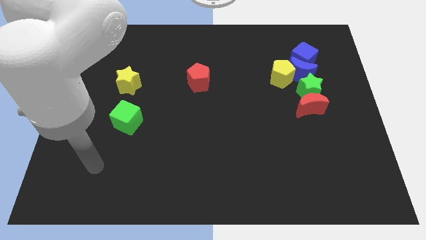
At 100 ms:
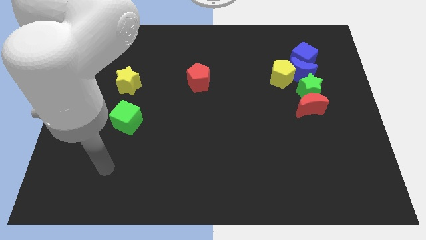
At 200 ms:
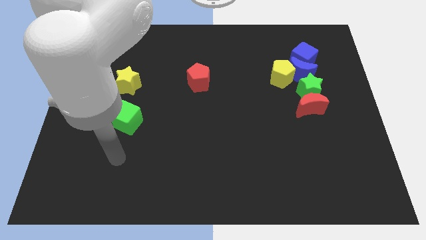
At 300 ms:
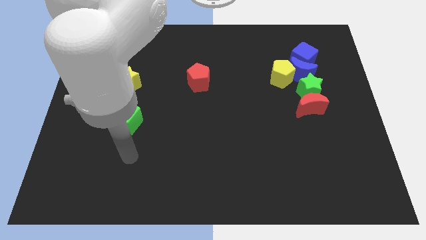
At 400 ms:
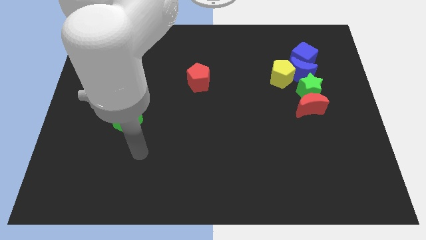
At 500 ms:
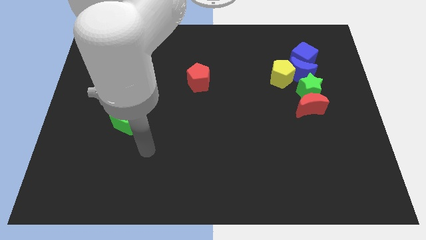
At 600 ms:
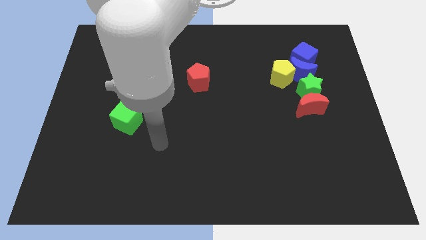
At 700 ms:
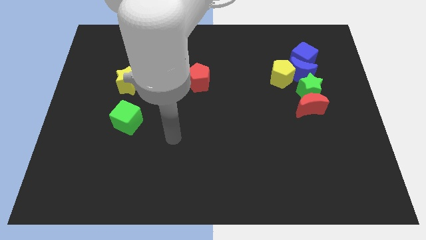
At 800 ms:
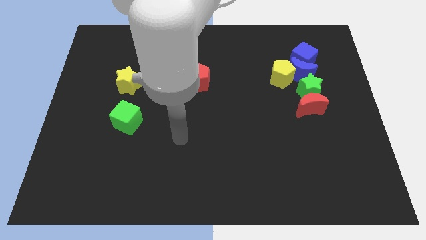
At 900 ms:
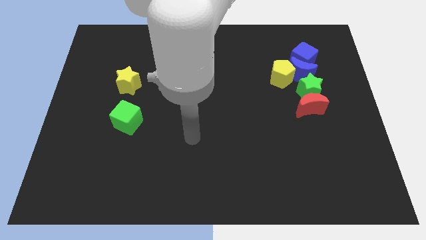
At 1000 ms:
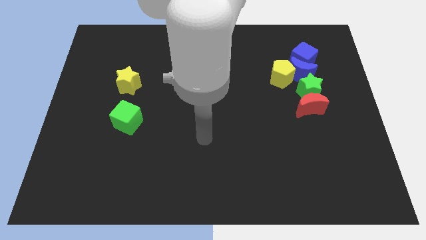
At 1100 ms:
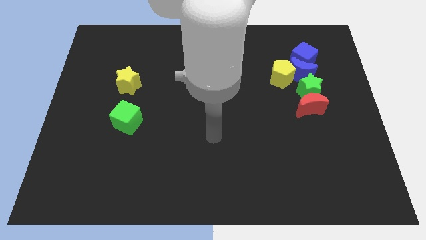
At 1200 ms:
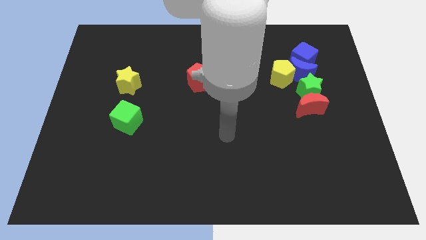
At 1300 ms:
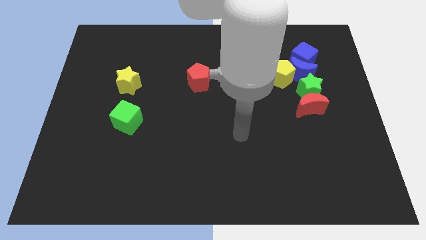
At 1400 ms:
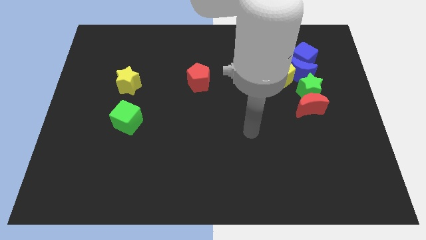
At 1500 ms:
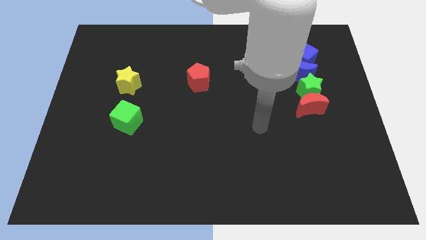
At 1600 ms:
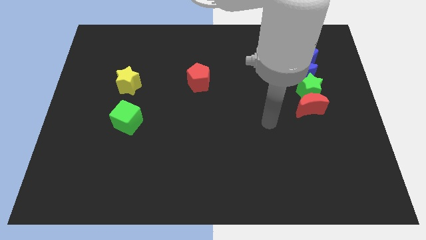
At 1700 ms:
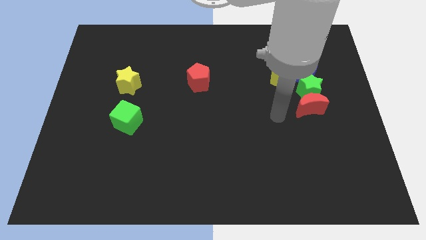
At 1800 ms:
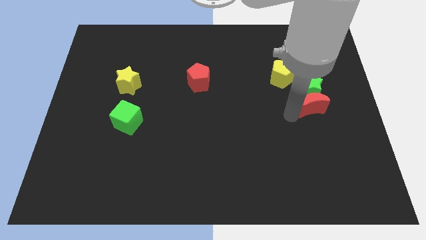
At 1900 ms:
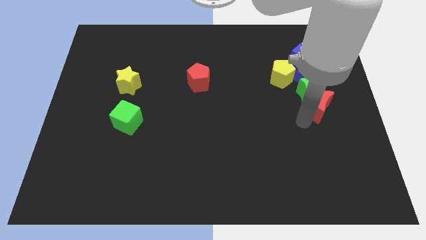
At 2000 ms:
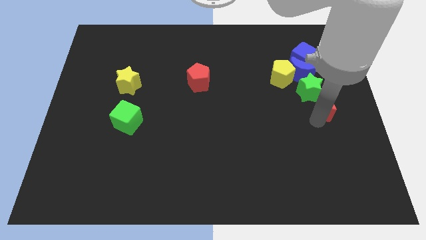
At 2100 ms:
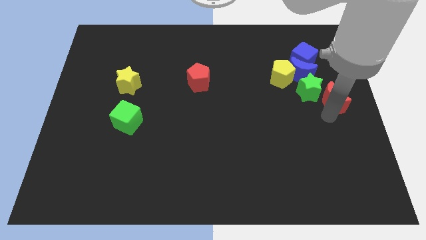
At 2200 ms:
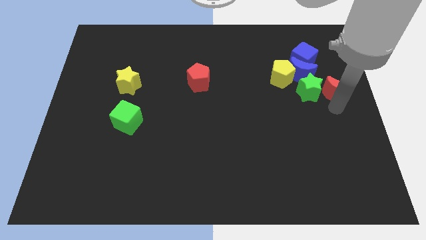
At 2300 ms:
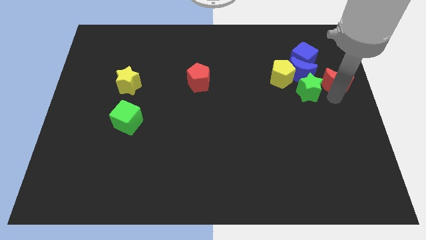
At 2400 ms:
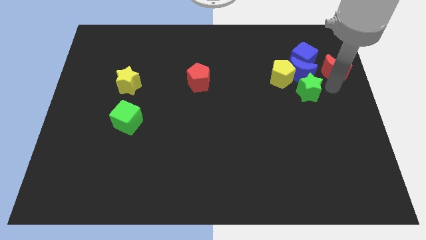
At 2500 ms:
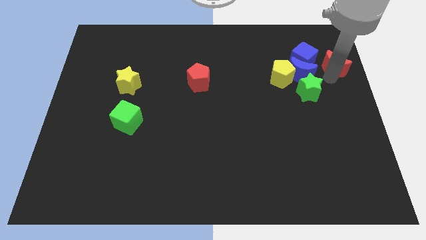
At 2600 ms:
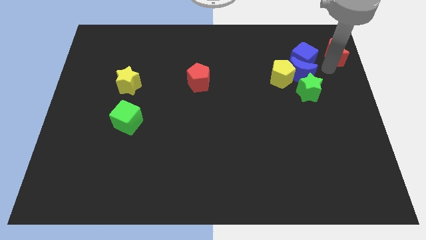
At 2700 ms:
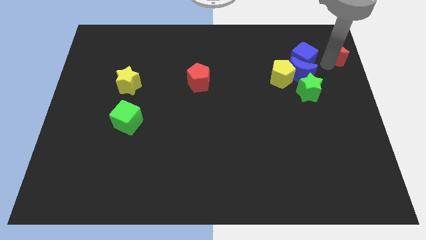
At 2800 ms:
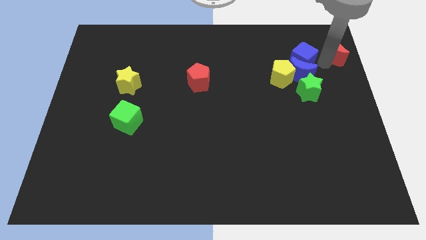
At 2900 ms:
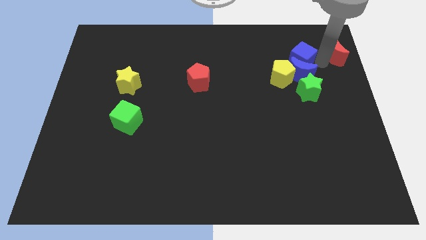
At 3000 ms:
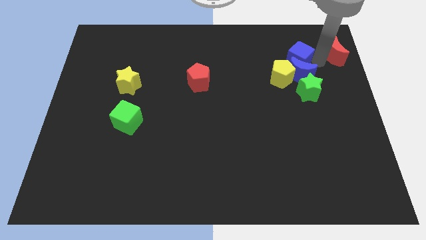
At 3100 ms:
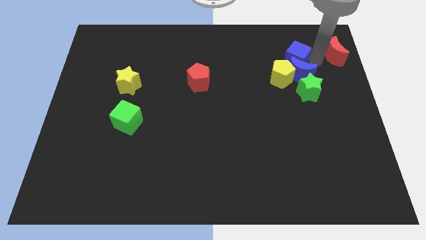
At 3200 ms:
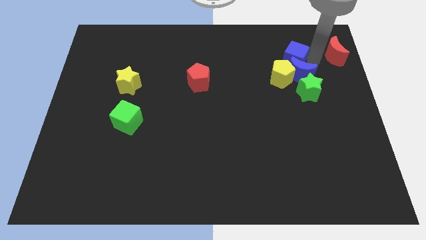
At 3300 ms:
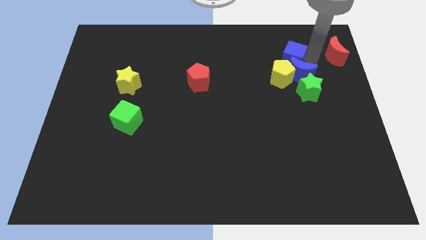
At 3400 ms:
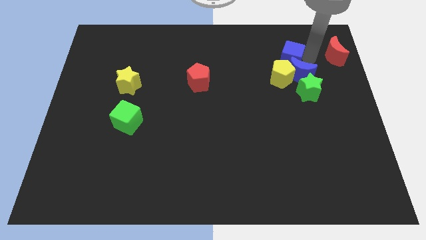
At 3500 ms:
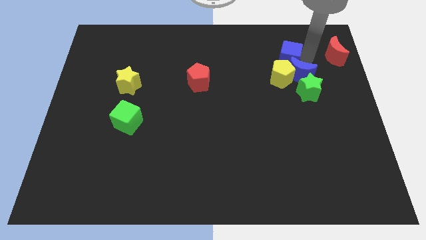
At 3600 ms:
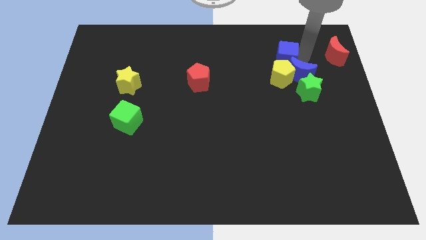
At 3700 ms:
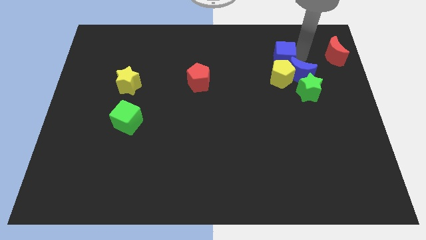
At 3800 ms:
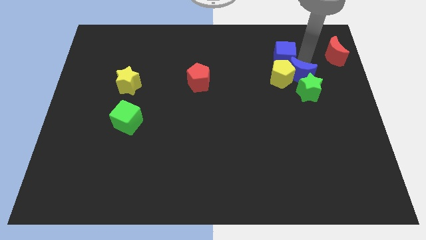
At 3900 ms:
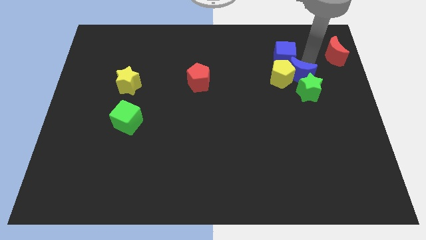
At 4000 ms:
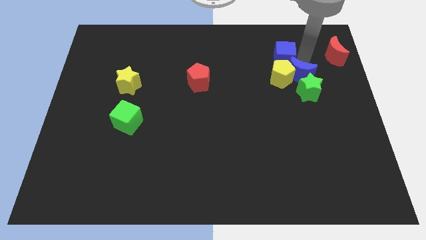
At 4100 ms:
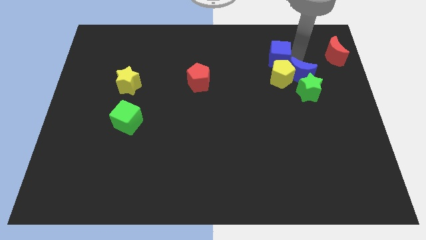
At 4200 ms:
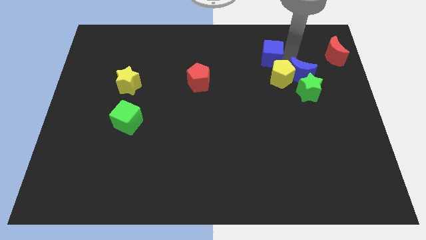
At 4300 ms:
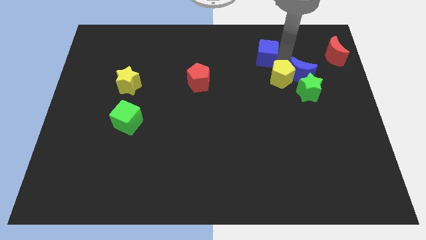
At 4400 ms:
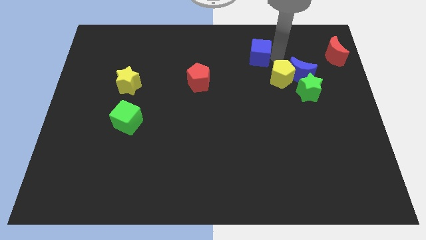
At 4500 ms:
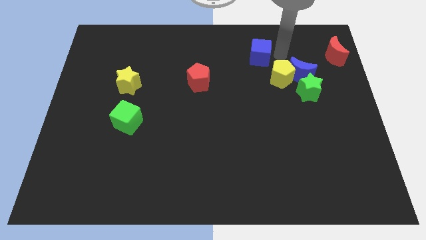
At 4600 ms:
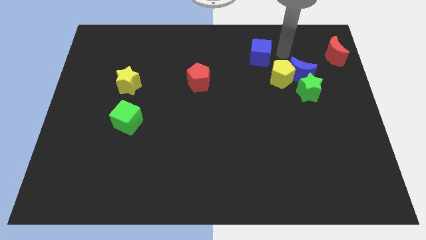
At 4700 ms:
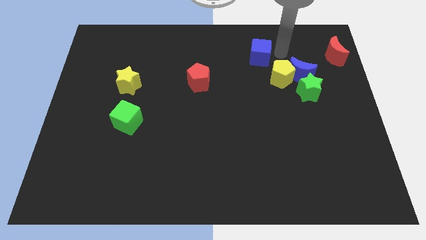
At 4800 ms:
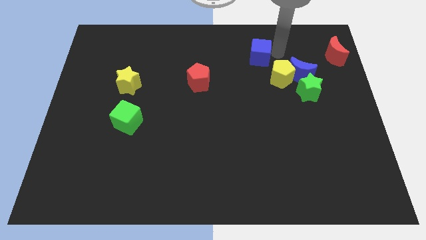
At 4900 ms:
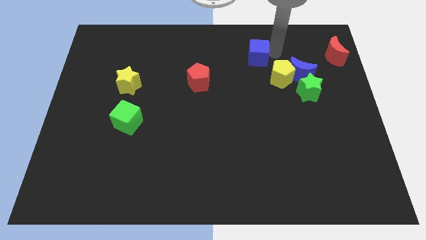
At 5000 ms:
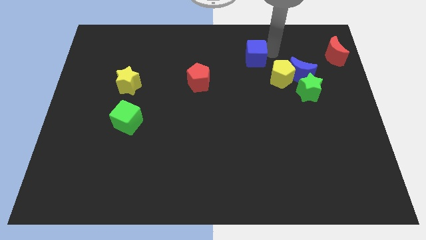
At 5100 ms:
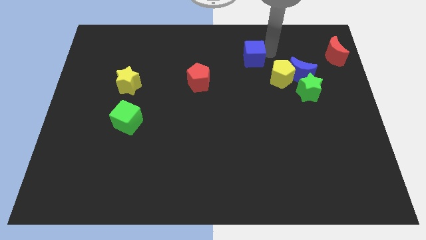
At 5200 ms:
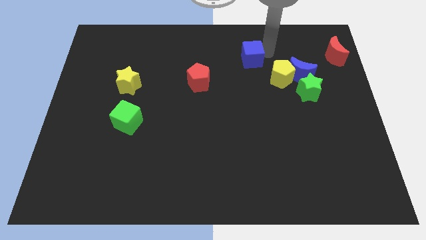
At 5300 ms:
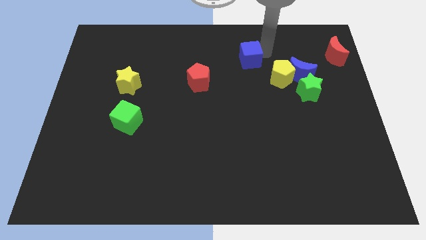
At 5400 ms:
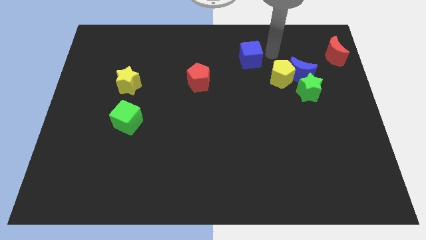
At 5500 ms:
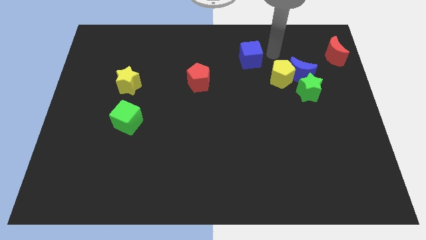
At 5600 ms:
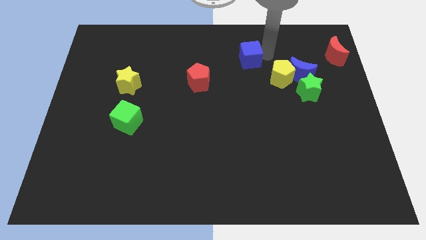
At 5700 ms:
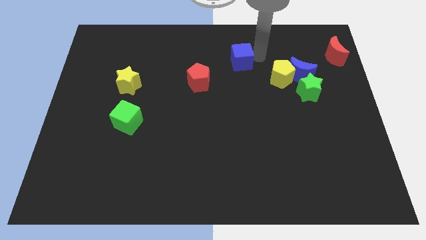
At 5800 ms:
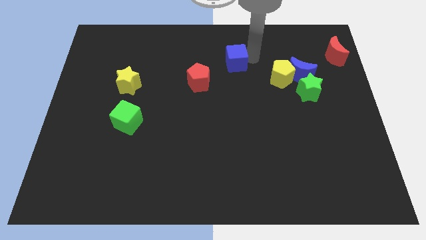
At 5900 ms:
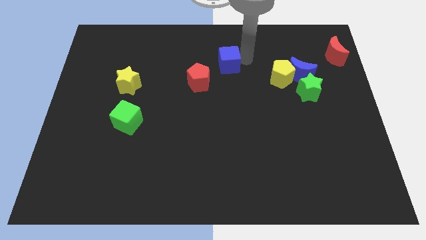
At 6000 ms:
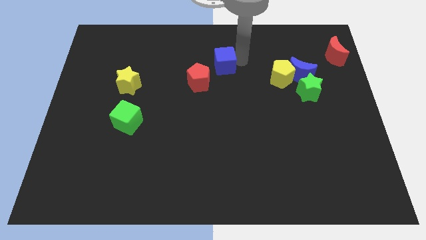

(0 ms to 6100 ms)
move the blue cube left

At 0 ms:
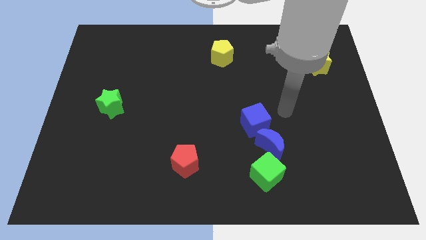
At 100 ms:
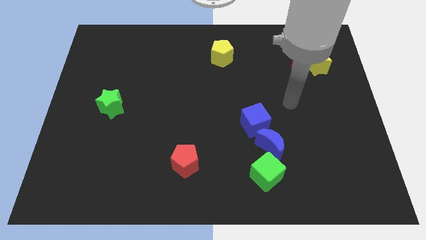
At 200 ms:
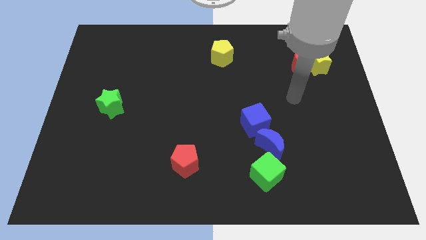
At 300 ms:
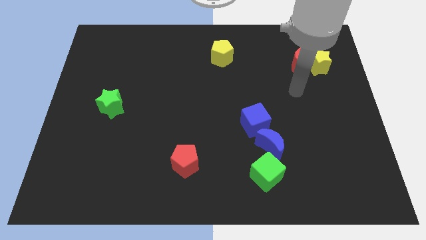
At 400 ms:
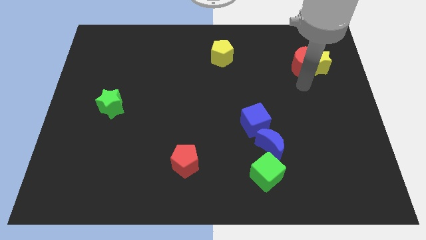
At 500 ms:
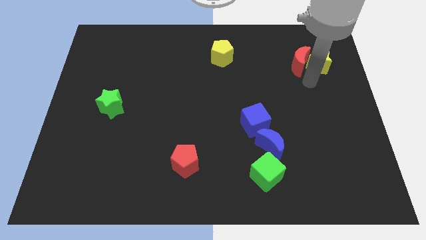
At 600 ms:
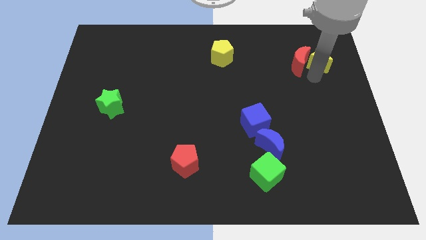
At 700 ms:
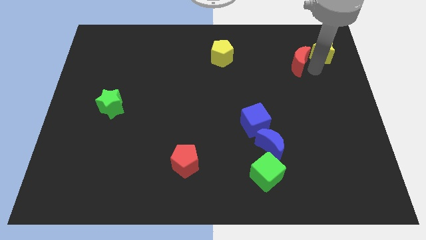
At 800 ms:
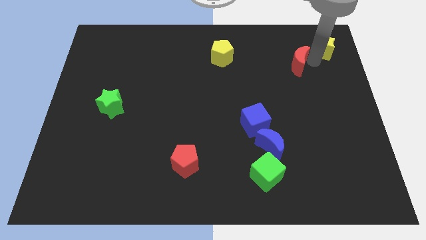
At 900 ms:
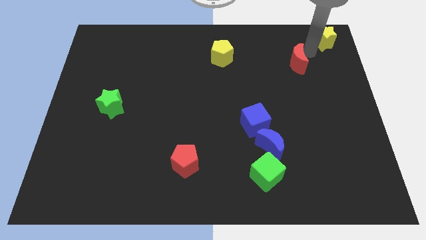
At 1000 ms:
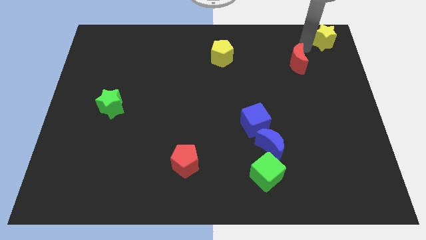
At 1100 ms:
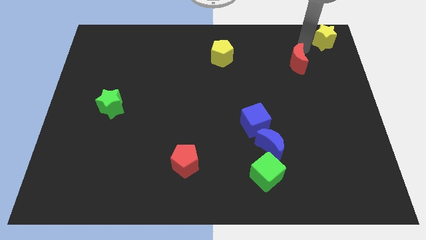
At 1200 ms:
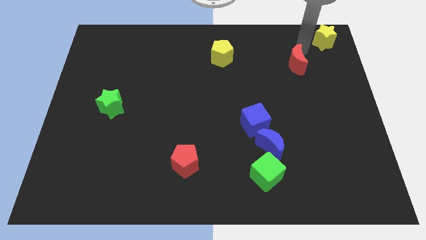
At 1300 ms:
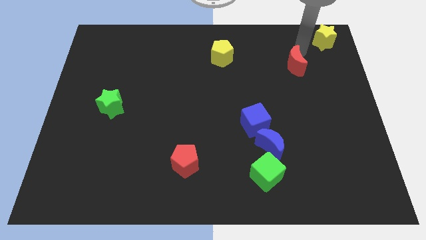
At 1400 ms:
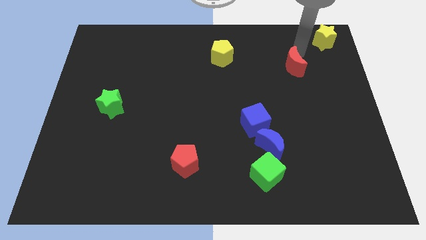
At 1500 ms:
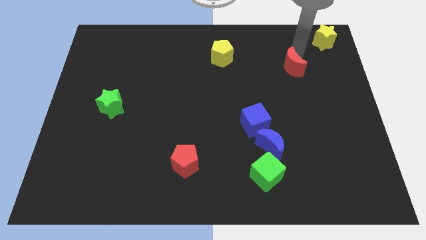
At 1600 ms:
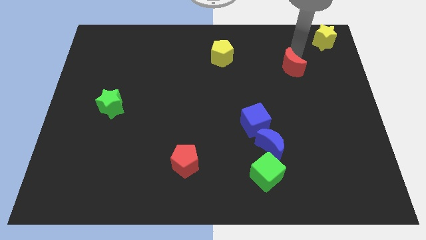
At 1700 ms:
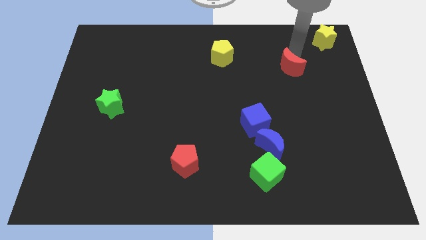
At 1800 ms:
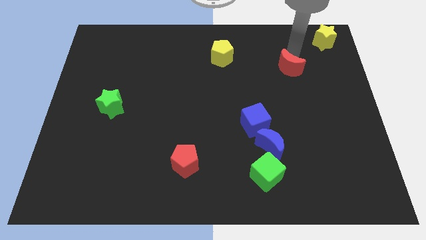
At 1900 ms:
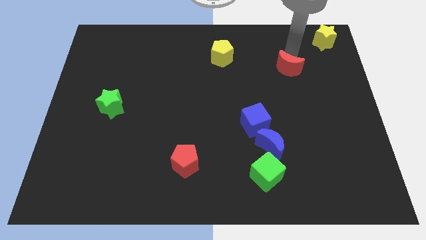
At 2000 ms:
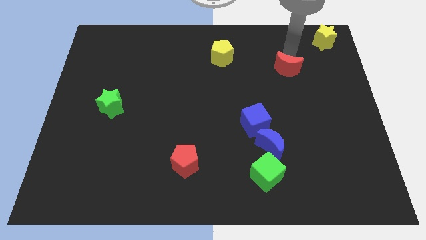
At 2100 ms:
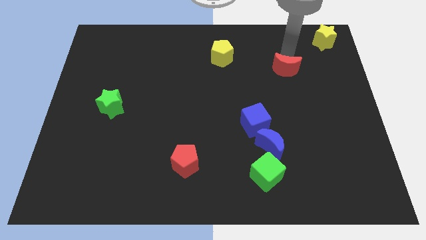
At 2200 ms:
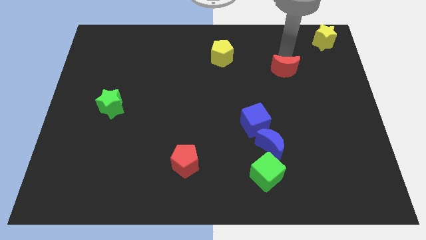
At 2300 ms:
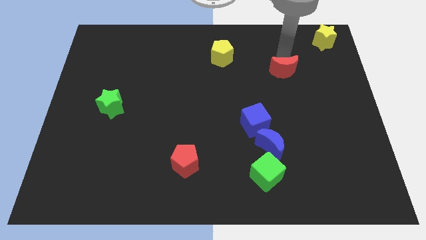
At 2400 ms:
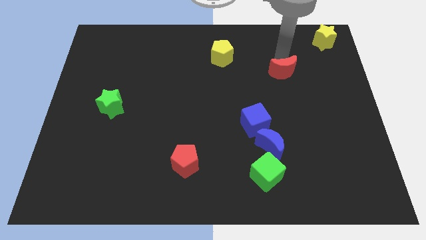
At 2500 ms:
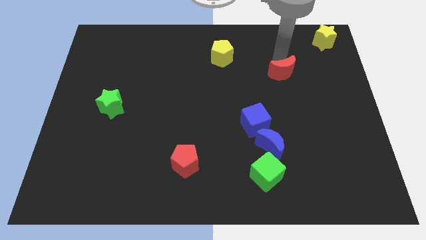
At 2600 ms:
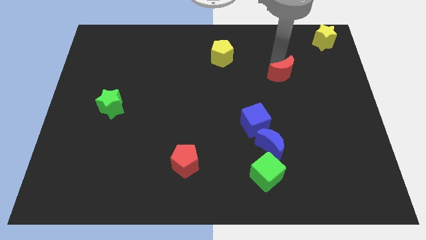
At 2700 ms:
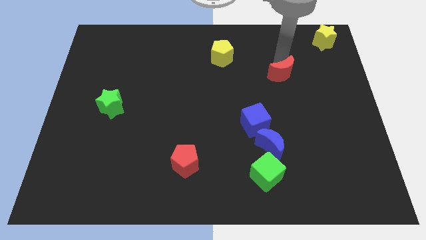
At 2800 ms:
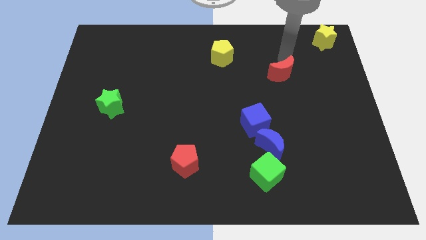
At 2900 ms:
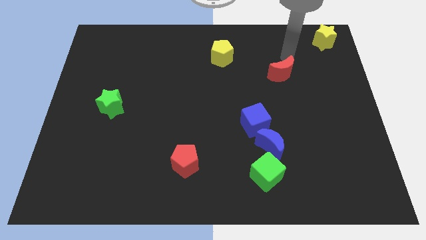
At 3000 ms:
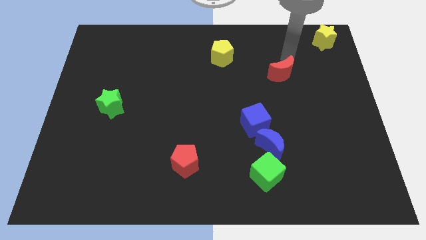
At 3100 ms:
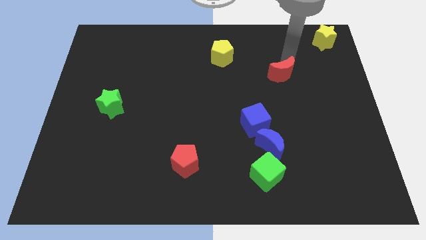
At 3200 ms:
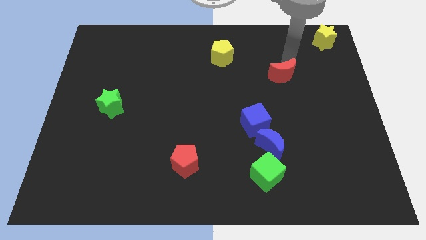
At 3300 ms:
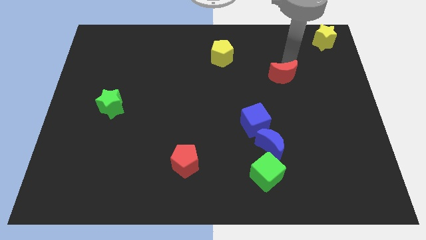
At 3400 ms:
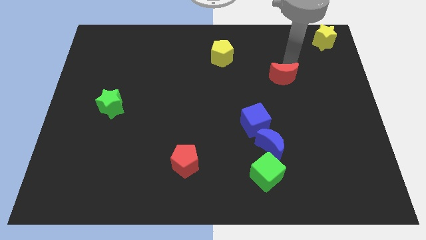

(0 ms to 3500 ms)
slide the red moon a bit downwards and then left
